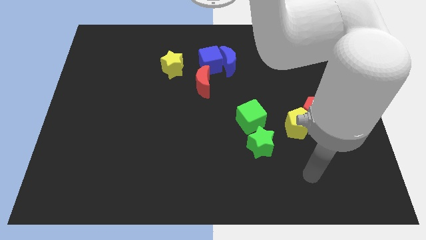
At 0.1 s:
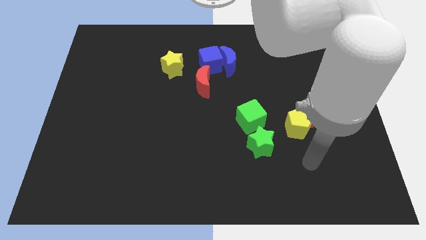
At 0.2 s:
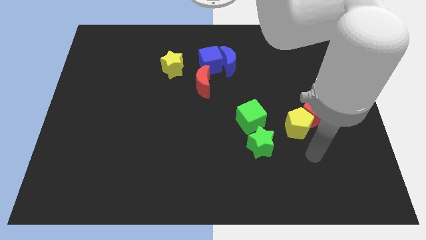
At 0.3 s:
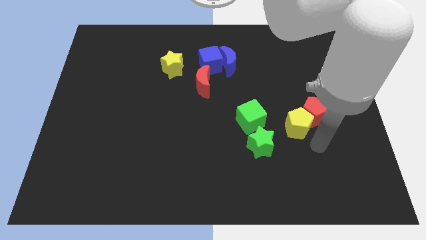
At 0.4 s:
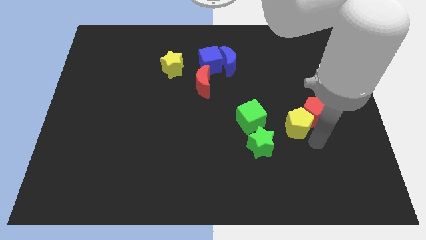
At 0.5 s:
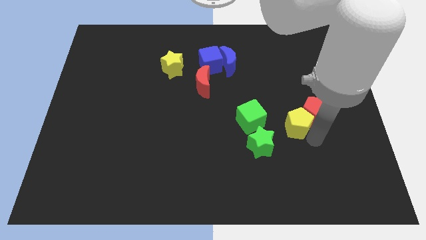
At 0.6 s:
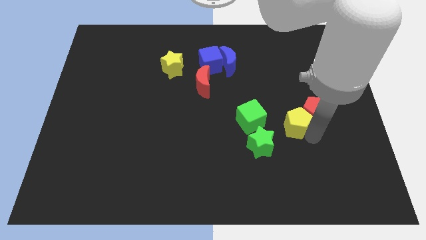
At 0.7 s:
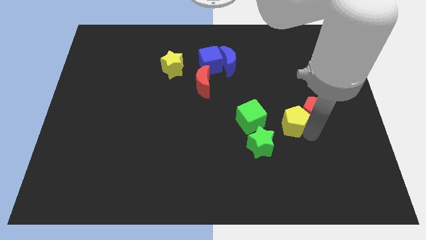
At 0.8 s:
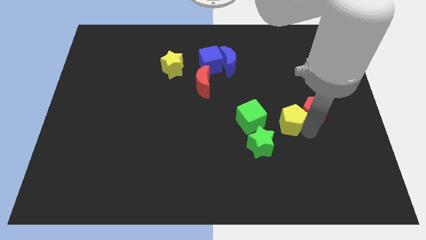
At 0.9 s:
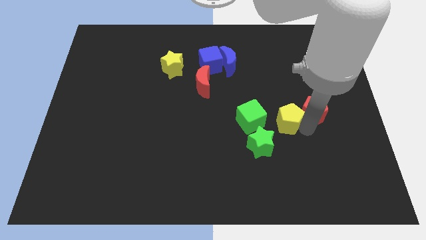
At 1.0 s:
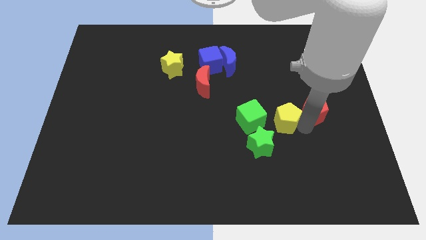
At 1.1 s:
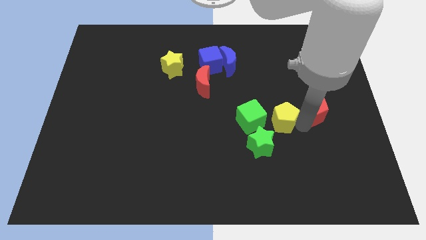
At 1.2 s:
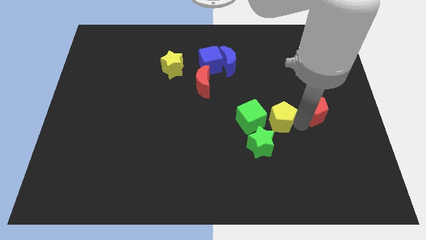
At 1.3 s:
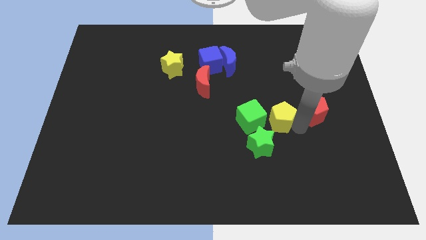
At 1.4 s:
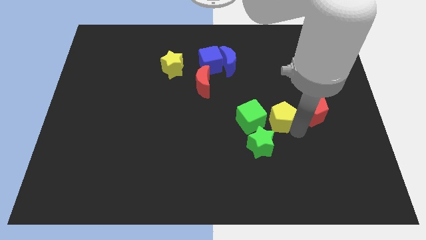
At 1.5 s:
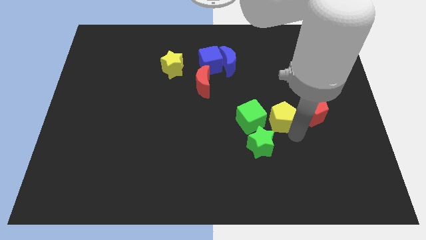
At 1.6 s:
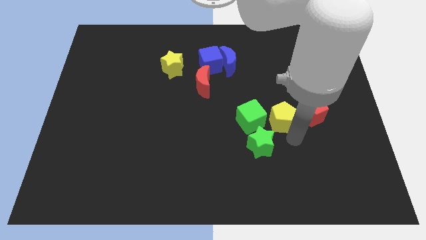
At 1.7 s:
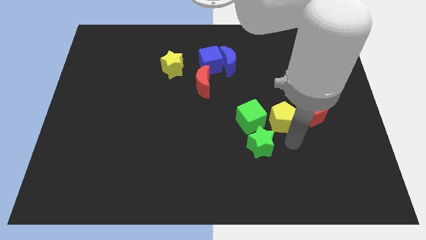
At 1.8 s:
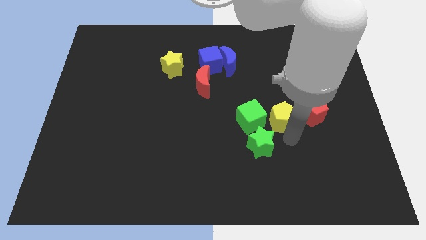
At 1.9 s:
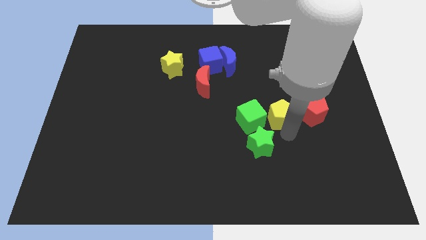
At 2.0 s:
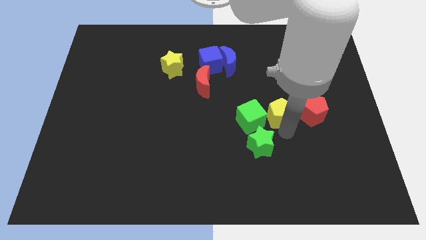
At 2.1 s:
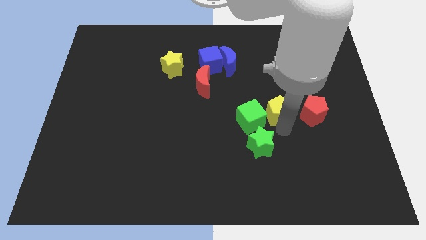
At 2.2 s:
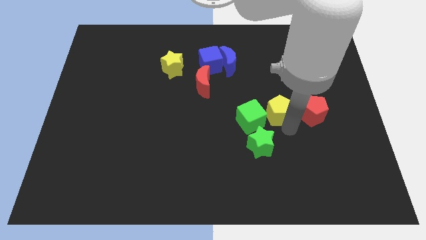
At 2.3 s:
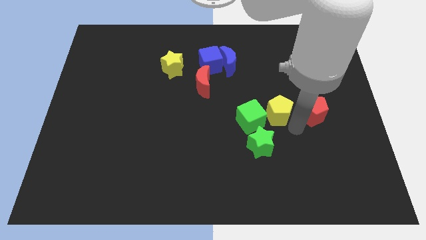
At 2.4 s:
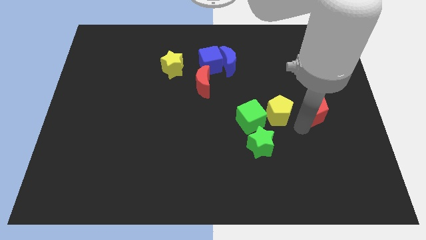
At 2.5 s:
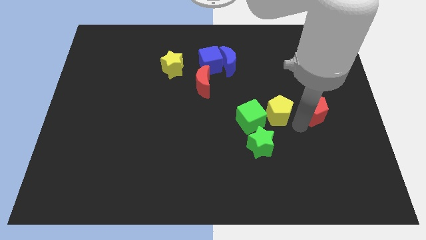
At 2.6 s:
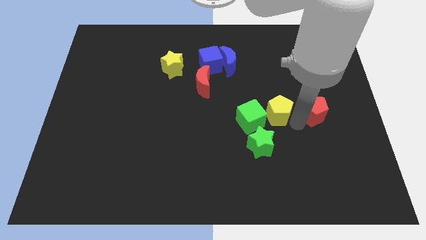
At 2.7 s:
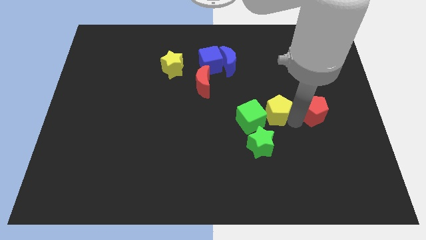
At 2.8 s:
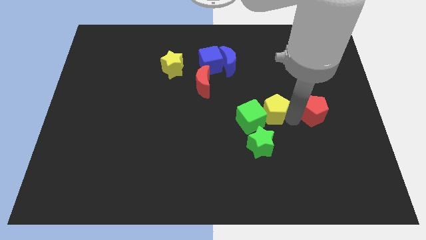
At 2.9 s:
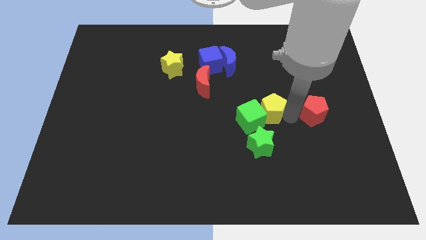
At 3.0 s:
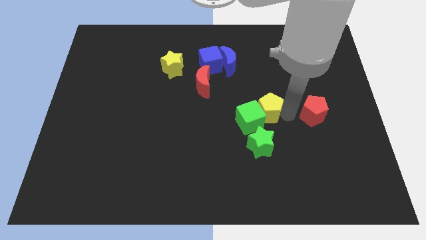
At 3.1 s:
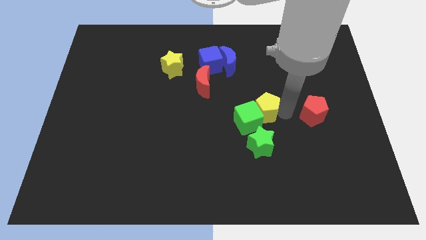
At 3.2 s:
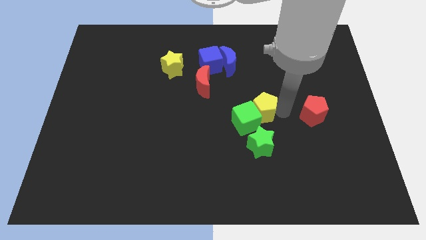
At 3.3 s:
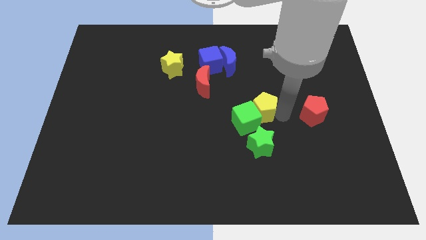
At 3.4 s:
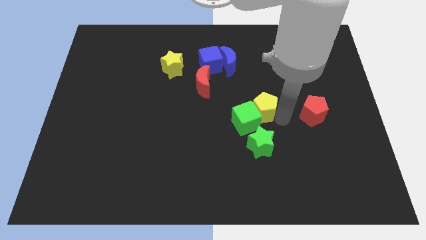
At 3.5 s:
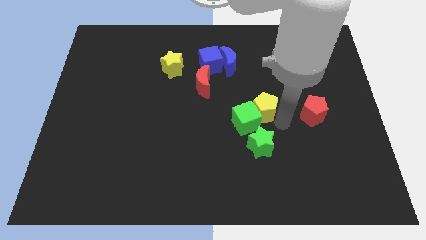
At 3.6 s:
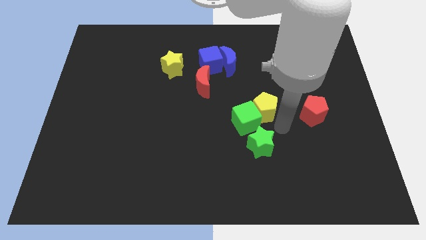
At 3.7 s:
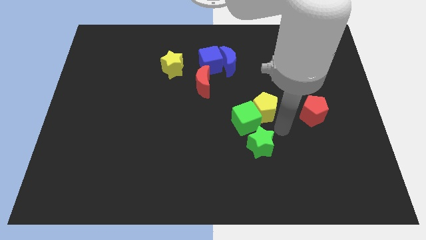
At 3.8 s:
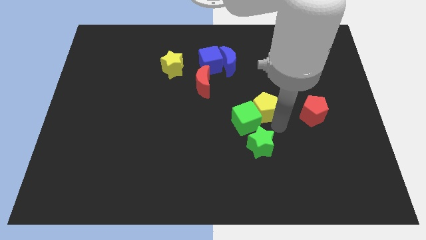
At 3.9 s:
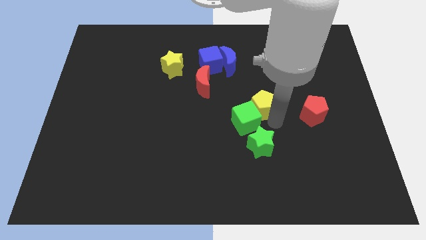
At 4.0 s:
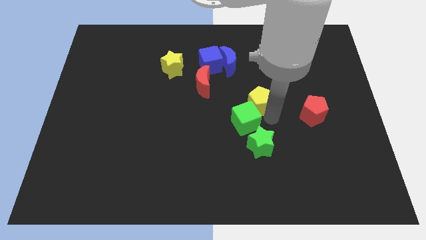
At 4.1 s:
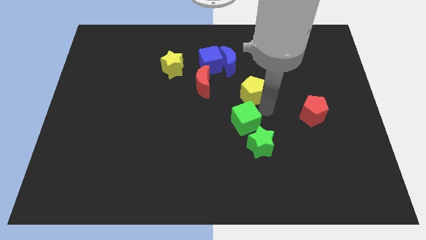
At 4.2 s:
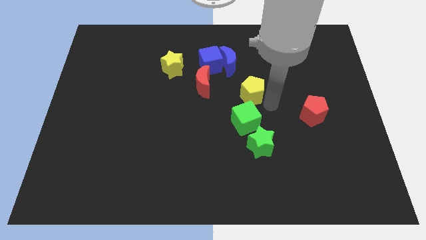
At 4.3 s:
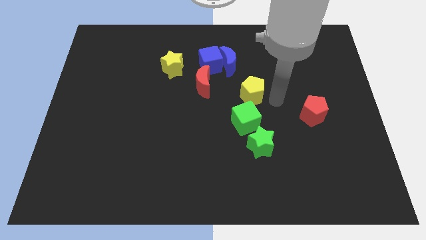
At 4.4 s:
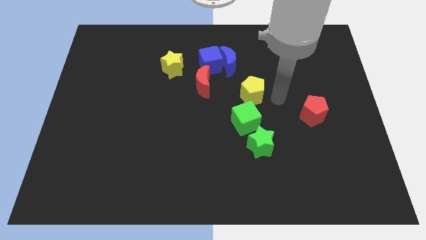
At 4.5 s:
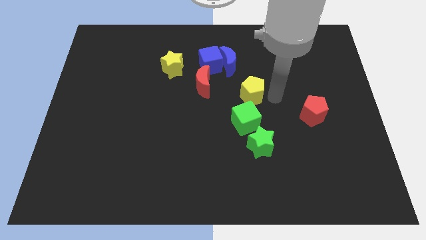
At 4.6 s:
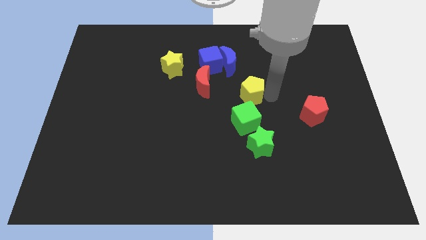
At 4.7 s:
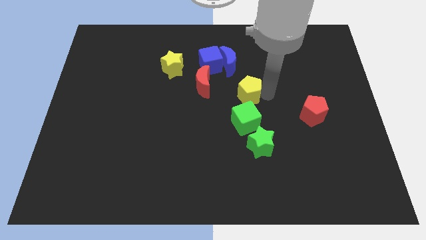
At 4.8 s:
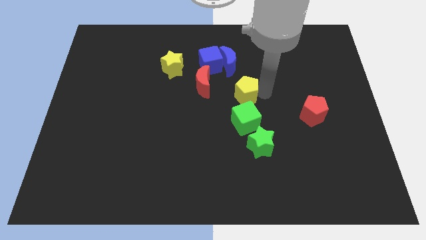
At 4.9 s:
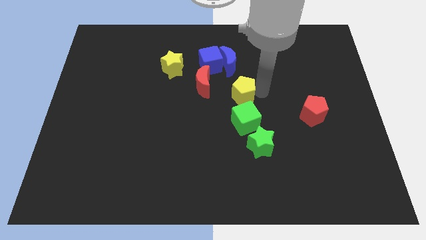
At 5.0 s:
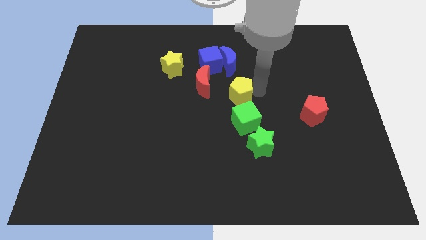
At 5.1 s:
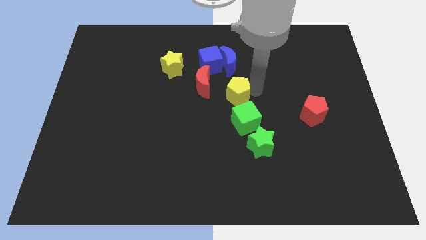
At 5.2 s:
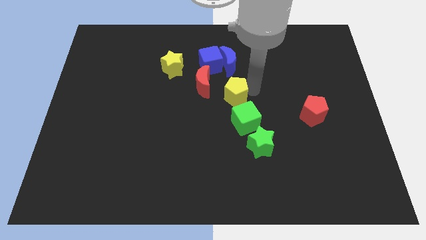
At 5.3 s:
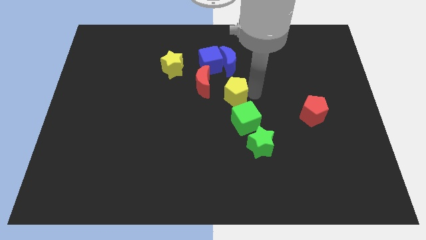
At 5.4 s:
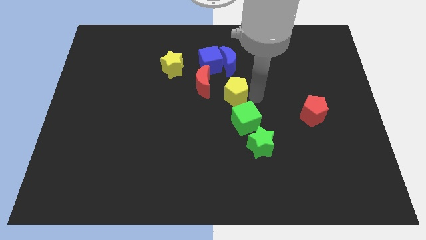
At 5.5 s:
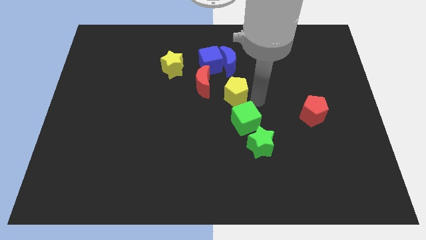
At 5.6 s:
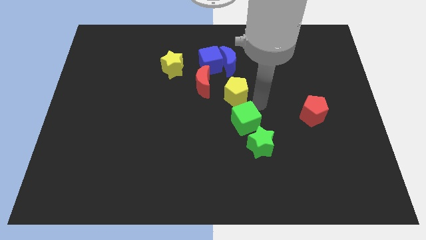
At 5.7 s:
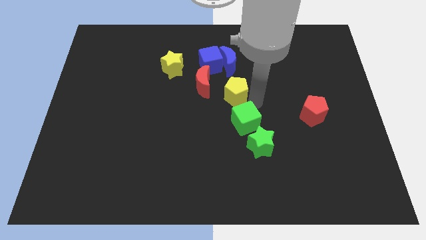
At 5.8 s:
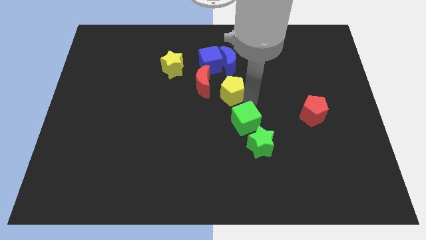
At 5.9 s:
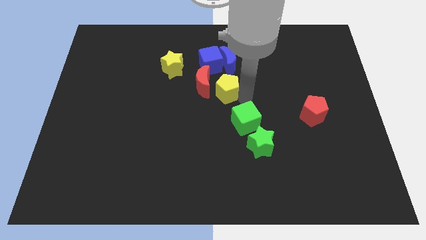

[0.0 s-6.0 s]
push the yellow pentagon towards the red moon

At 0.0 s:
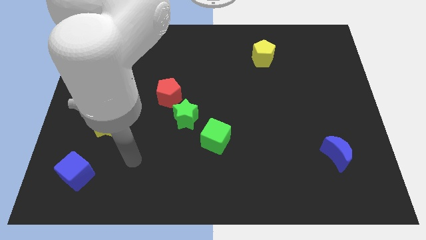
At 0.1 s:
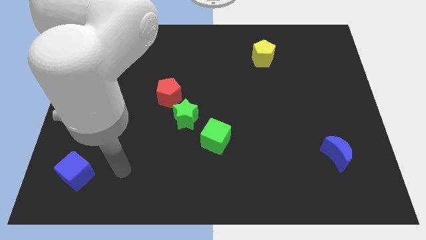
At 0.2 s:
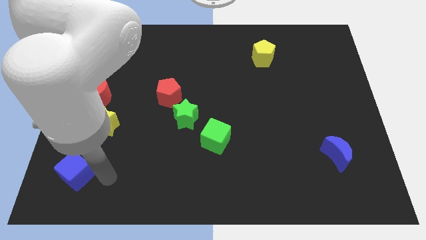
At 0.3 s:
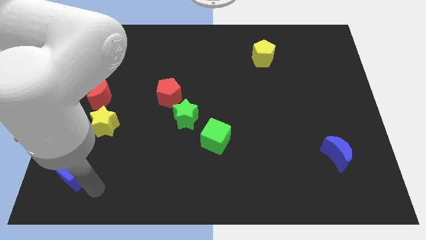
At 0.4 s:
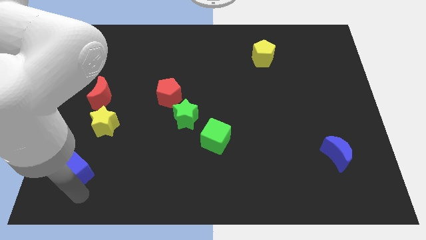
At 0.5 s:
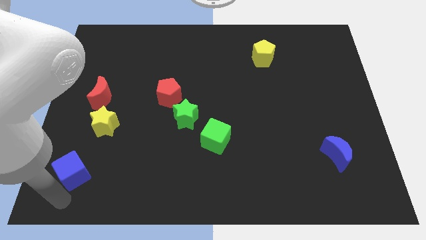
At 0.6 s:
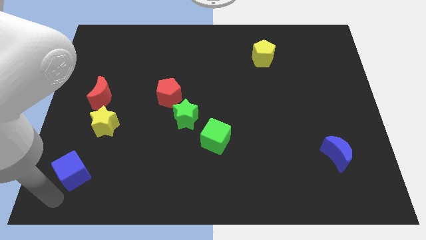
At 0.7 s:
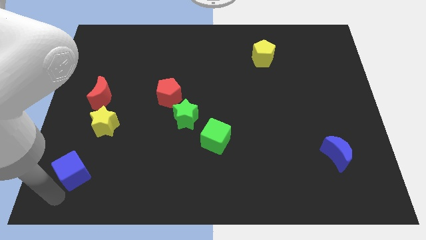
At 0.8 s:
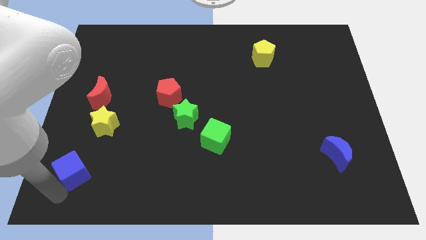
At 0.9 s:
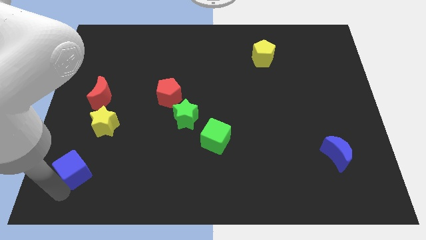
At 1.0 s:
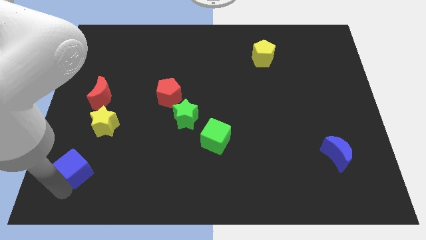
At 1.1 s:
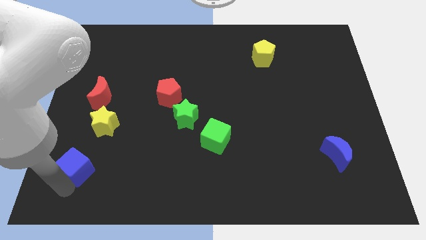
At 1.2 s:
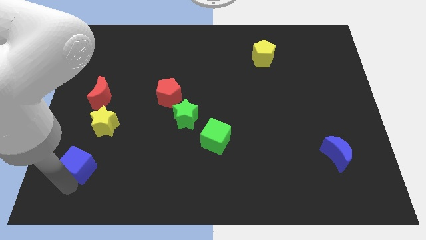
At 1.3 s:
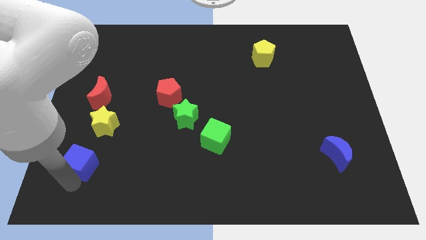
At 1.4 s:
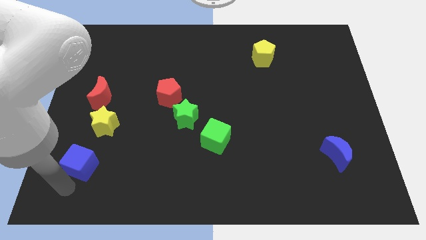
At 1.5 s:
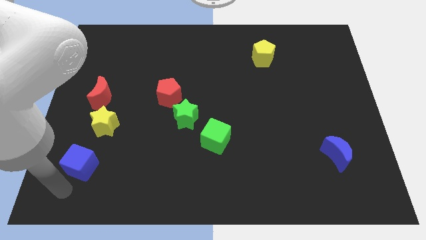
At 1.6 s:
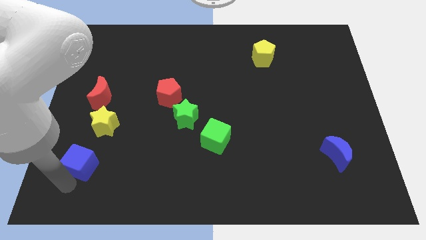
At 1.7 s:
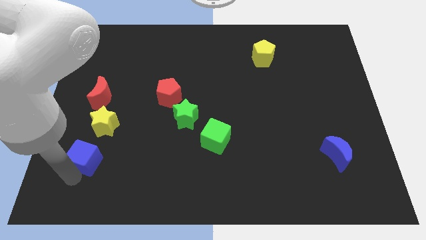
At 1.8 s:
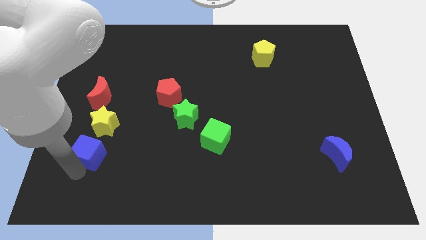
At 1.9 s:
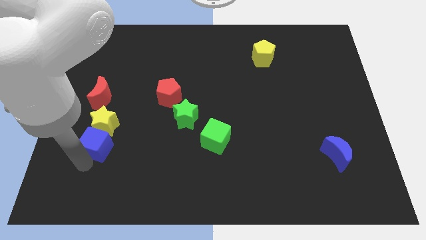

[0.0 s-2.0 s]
put the blue cube next to the yellow star
